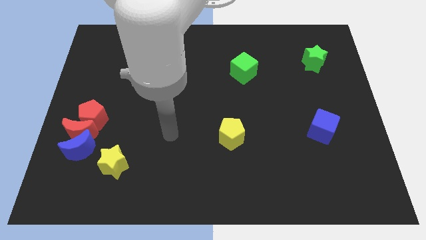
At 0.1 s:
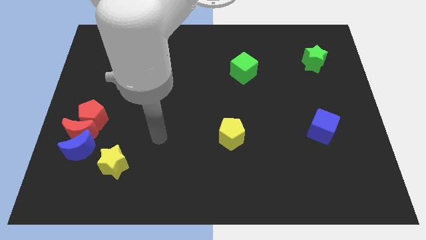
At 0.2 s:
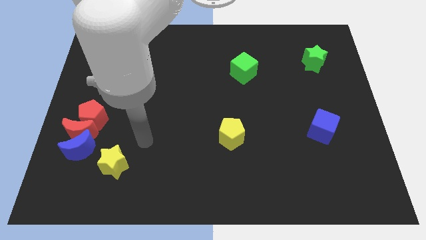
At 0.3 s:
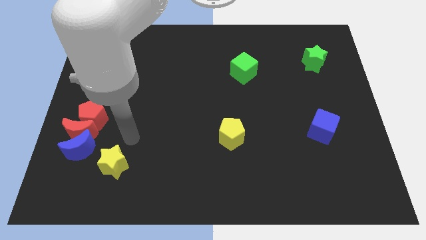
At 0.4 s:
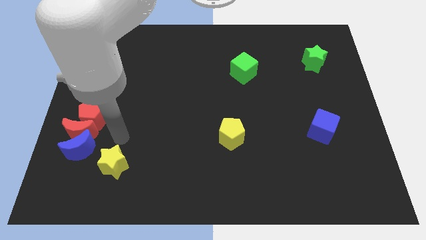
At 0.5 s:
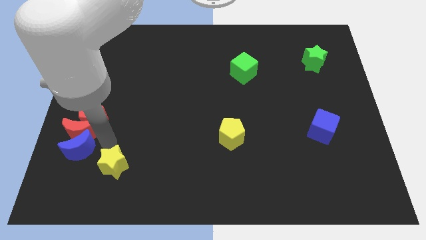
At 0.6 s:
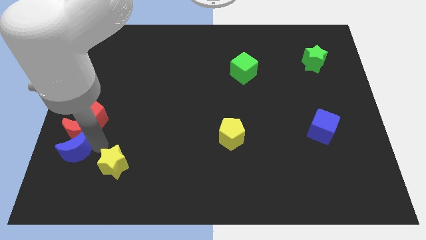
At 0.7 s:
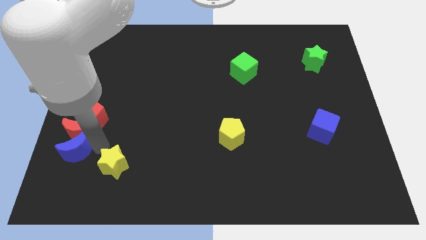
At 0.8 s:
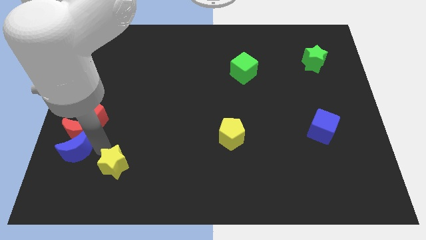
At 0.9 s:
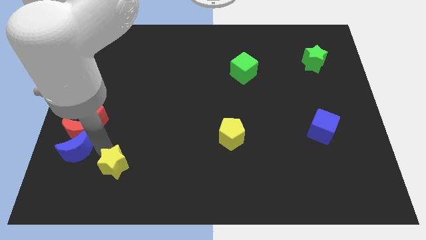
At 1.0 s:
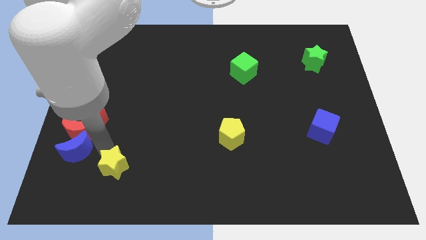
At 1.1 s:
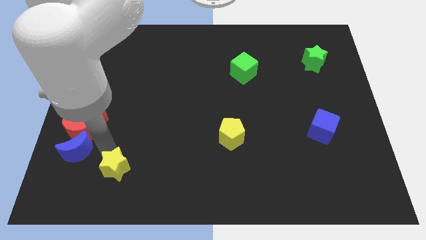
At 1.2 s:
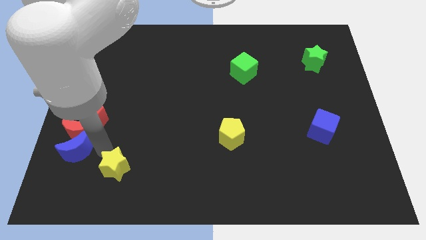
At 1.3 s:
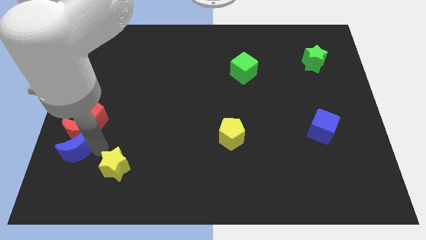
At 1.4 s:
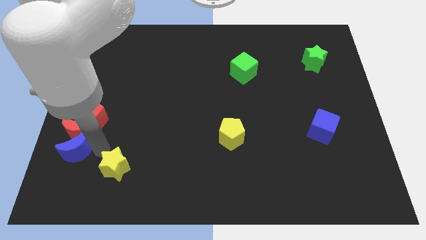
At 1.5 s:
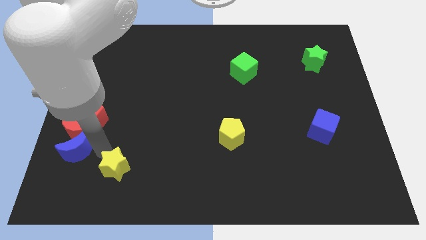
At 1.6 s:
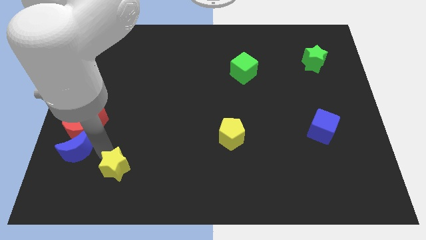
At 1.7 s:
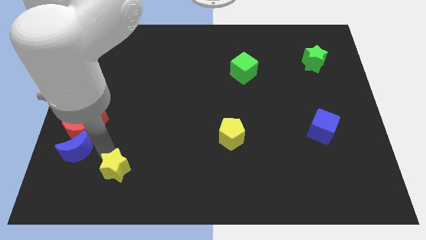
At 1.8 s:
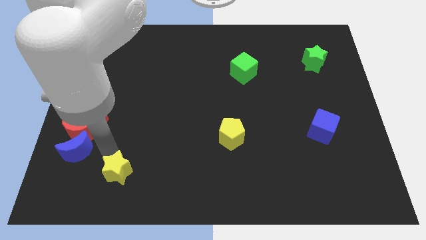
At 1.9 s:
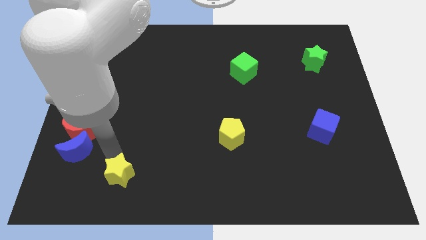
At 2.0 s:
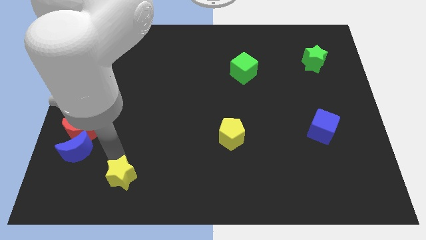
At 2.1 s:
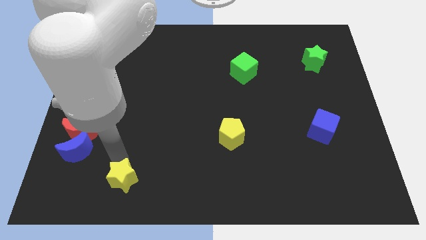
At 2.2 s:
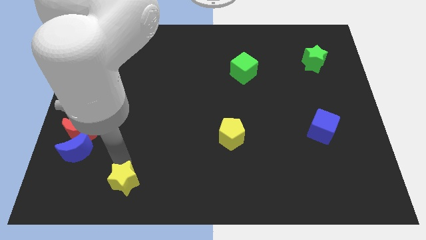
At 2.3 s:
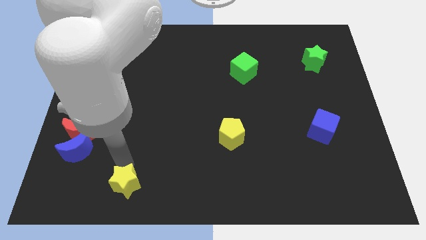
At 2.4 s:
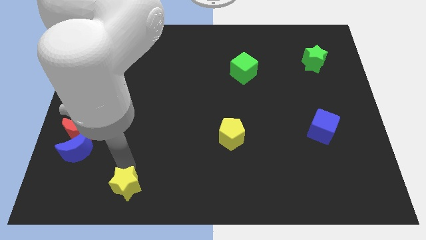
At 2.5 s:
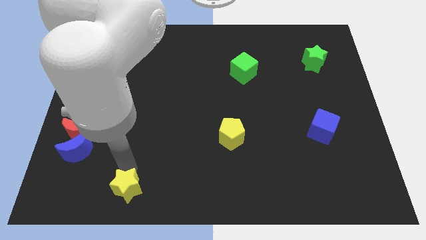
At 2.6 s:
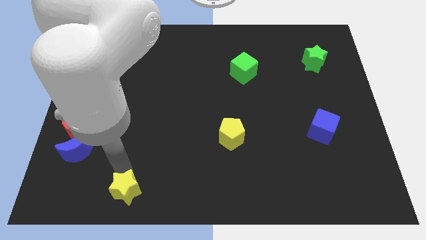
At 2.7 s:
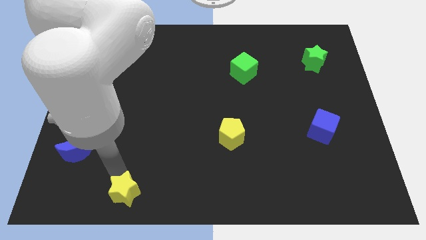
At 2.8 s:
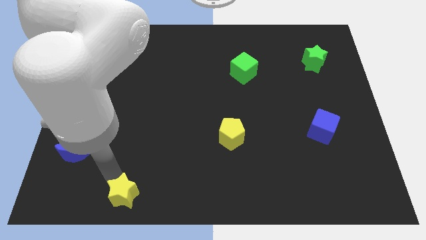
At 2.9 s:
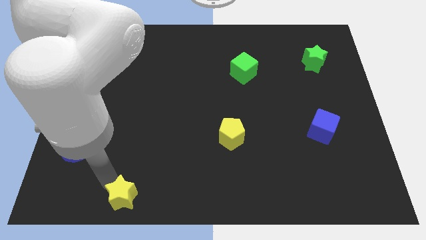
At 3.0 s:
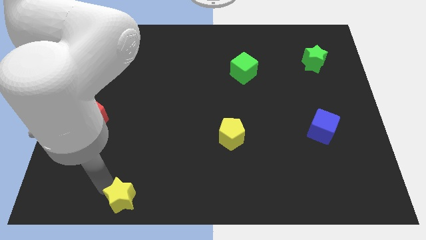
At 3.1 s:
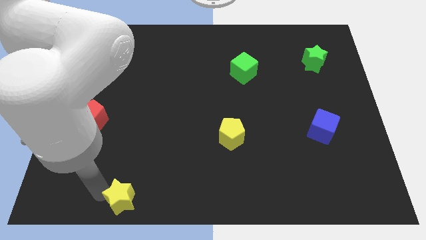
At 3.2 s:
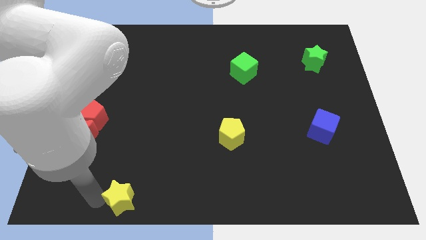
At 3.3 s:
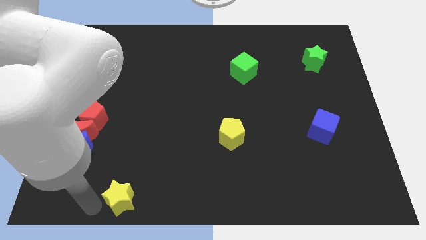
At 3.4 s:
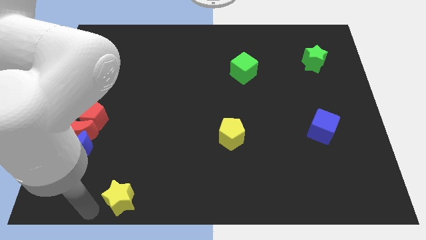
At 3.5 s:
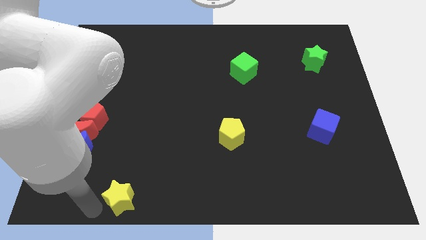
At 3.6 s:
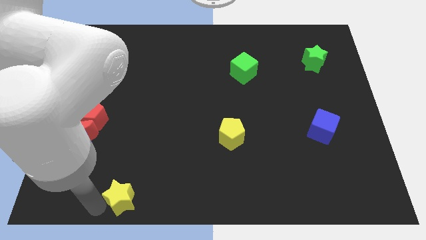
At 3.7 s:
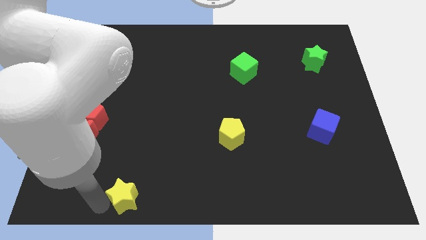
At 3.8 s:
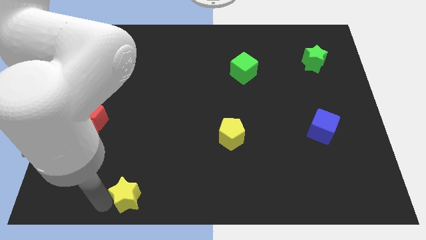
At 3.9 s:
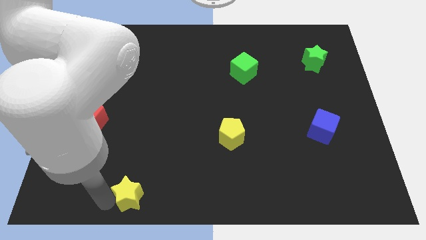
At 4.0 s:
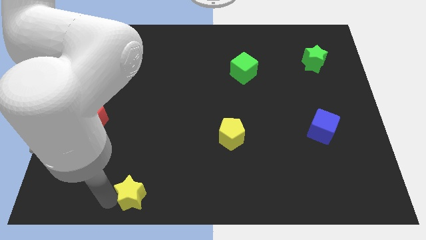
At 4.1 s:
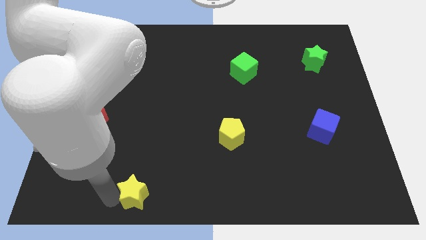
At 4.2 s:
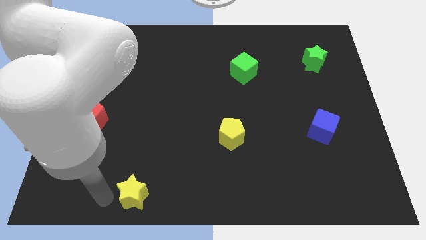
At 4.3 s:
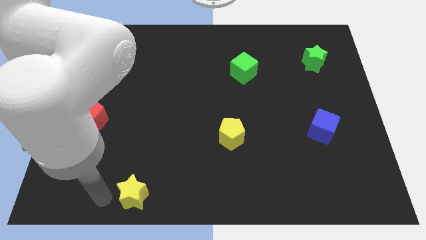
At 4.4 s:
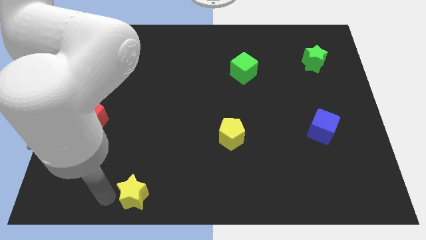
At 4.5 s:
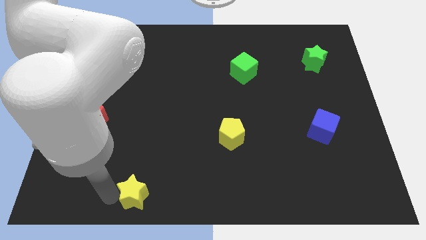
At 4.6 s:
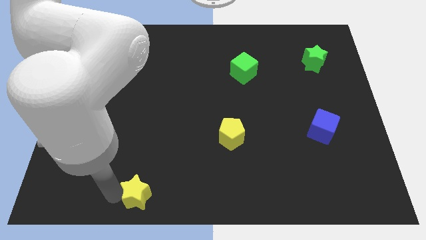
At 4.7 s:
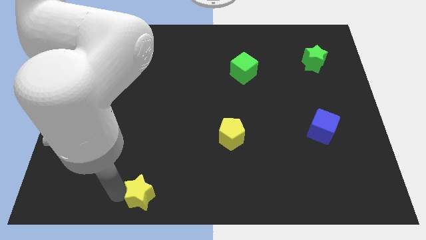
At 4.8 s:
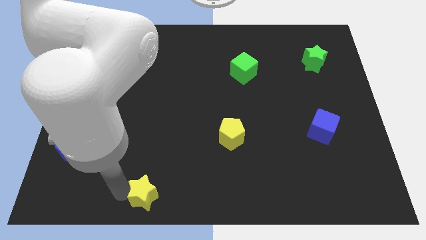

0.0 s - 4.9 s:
push the yellow star to the bottom

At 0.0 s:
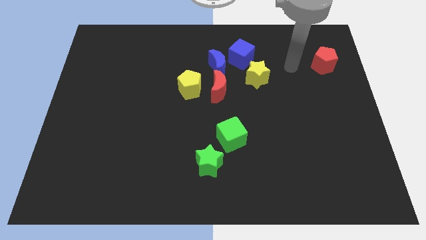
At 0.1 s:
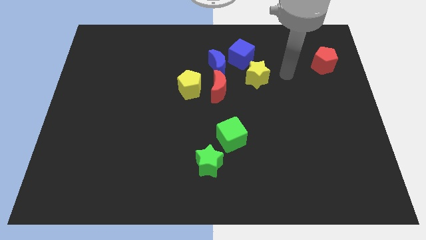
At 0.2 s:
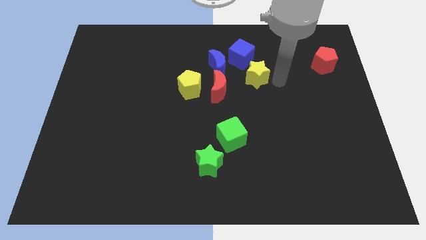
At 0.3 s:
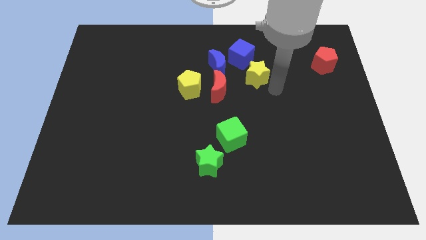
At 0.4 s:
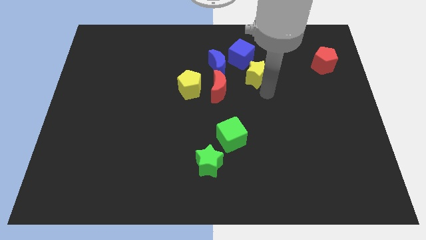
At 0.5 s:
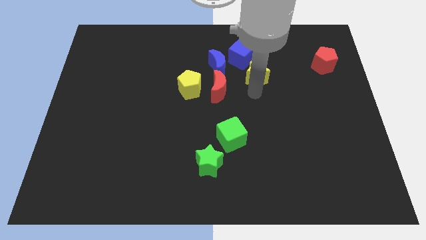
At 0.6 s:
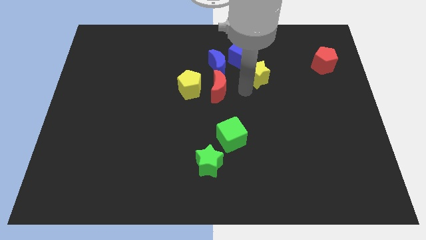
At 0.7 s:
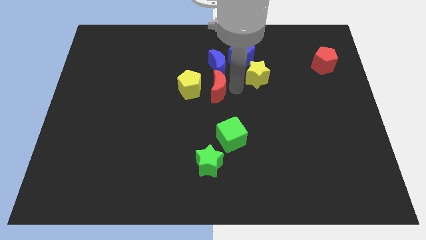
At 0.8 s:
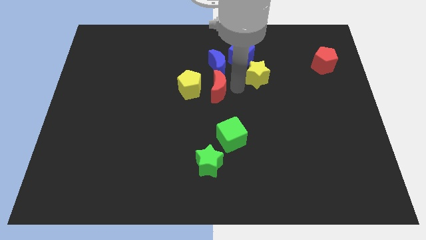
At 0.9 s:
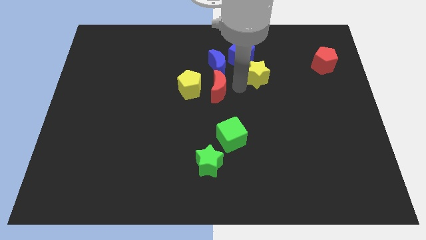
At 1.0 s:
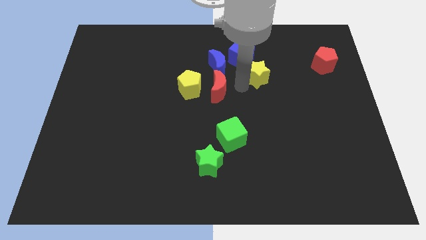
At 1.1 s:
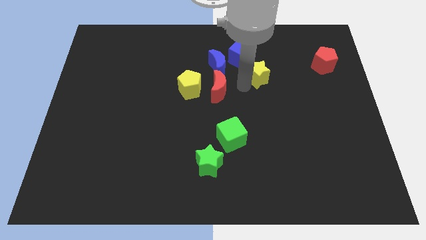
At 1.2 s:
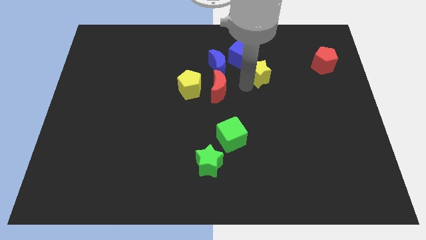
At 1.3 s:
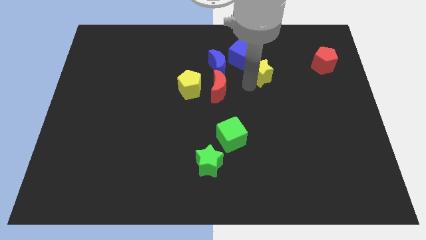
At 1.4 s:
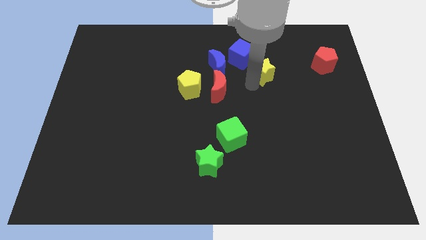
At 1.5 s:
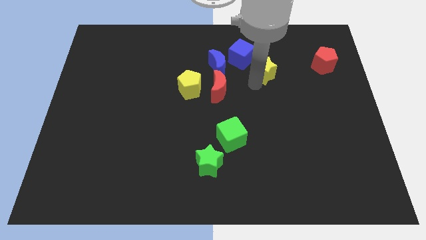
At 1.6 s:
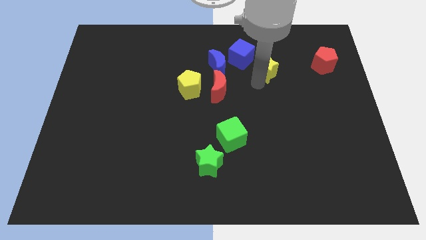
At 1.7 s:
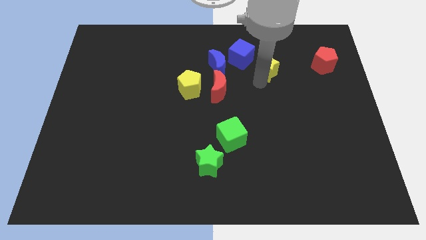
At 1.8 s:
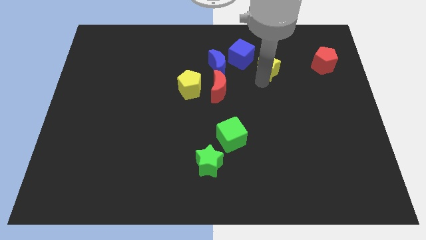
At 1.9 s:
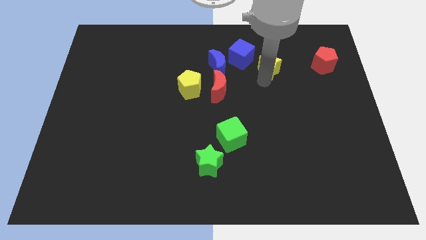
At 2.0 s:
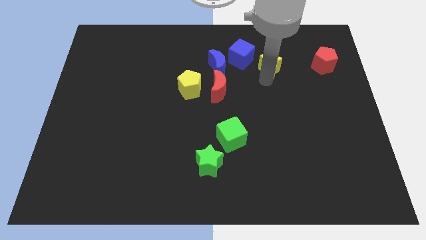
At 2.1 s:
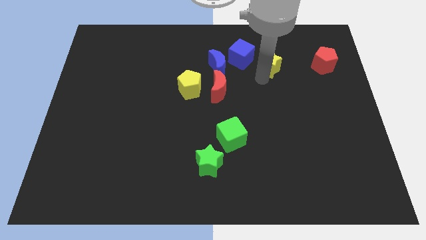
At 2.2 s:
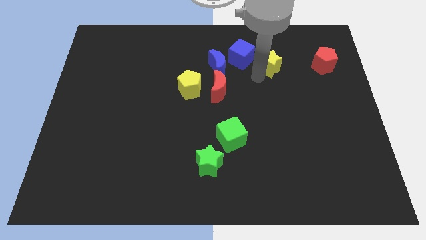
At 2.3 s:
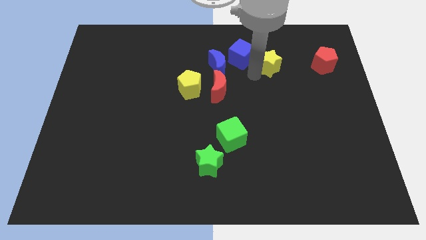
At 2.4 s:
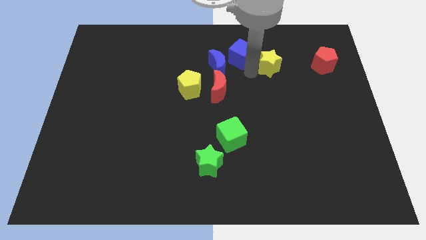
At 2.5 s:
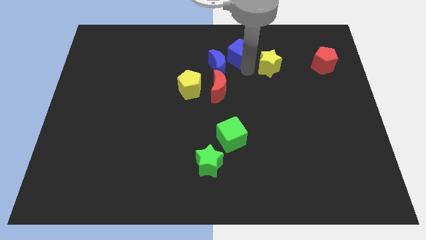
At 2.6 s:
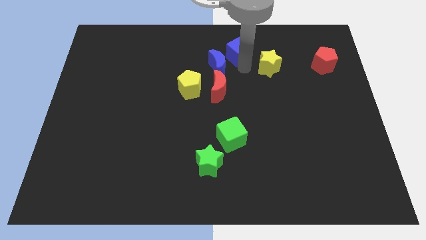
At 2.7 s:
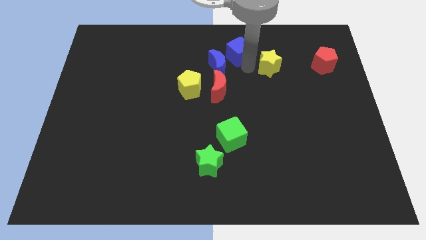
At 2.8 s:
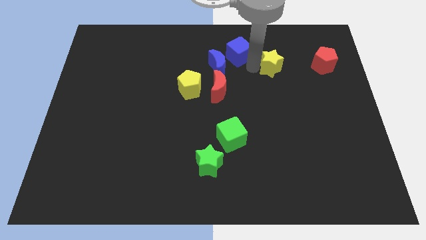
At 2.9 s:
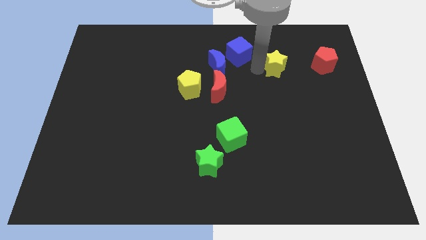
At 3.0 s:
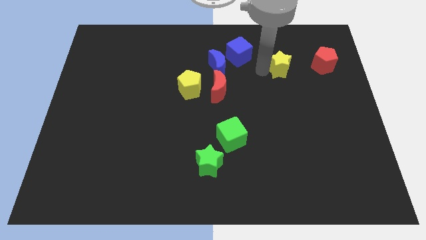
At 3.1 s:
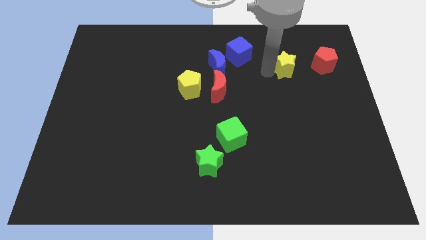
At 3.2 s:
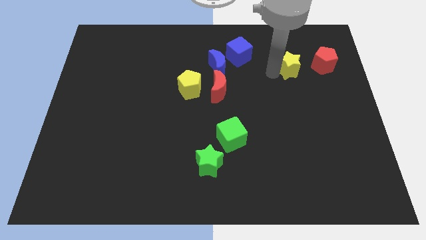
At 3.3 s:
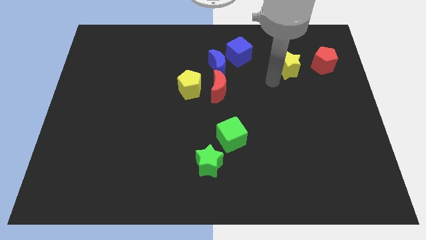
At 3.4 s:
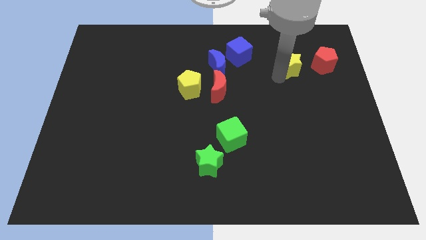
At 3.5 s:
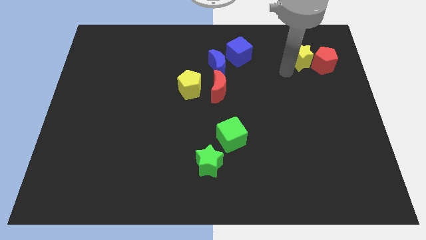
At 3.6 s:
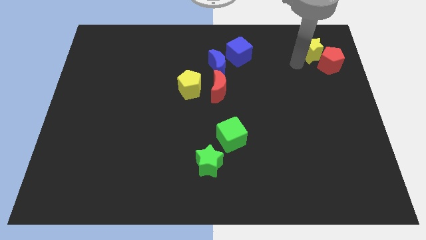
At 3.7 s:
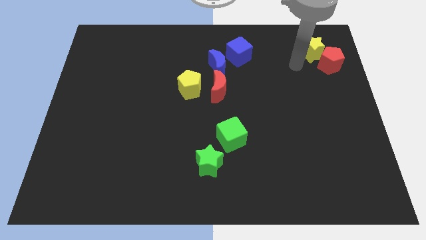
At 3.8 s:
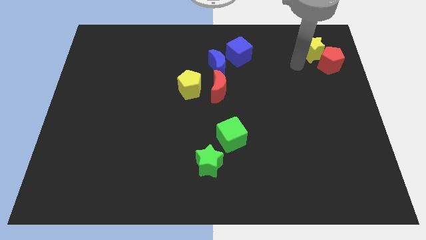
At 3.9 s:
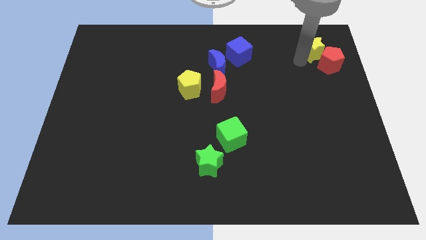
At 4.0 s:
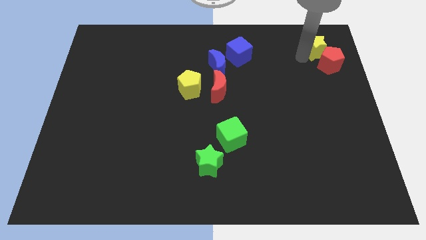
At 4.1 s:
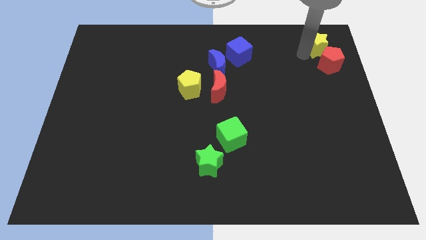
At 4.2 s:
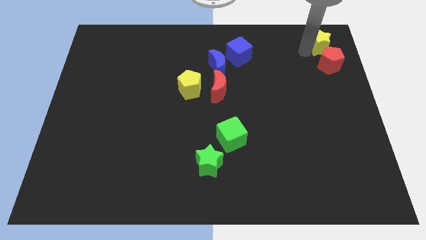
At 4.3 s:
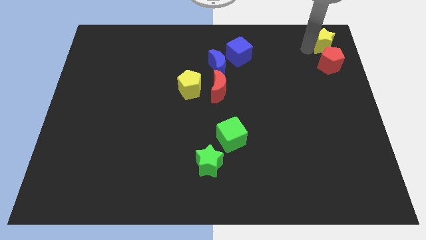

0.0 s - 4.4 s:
push the yellow star to the top right corner
